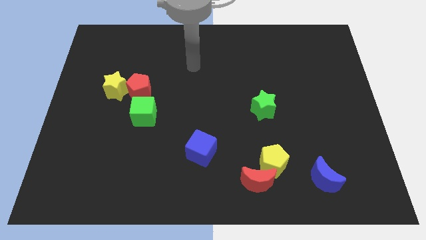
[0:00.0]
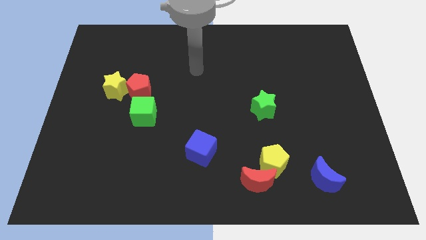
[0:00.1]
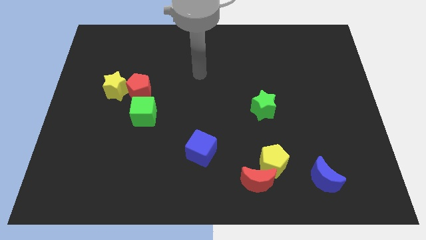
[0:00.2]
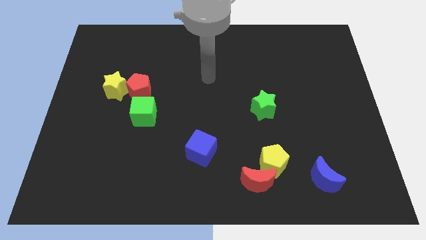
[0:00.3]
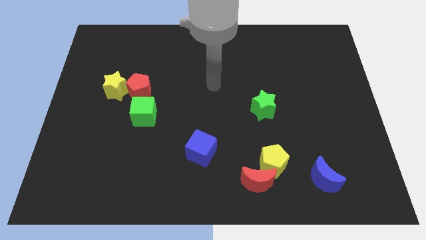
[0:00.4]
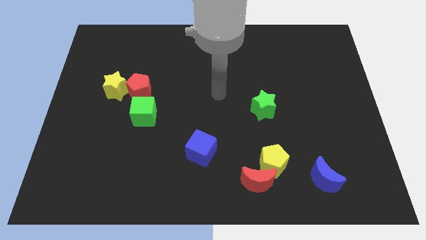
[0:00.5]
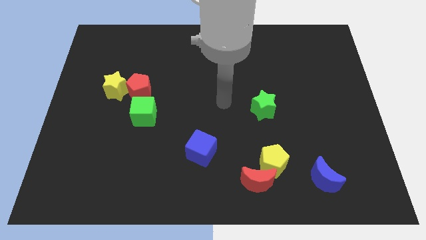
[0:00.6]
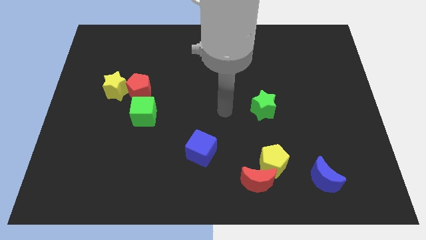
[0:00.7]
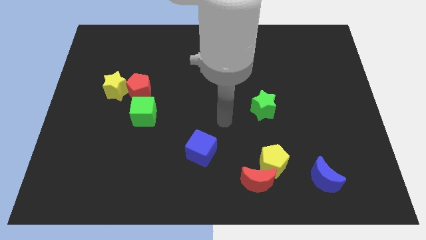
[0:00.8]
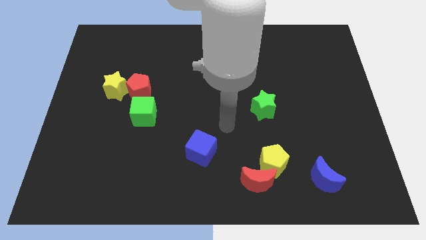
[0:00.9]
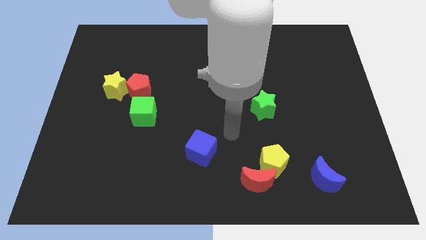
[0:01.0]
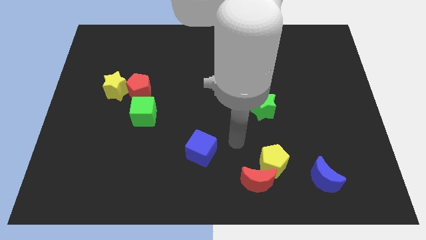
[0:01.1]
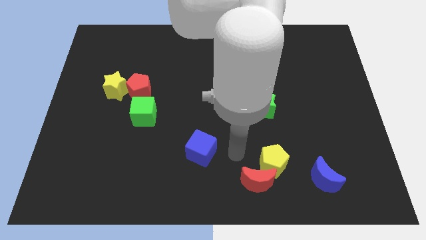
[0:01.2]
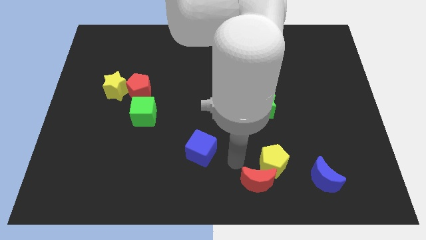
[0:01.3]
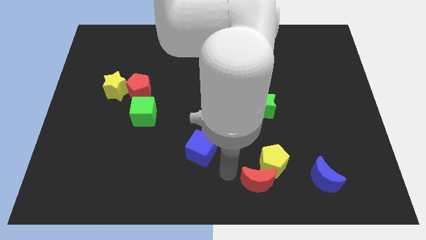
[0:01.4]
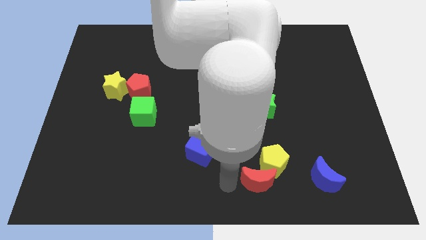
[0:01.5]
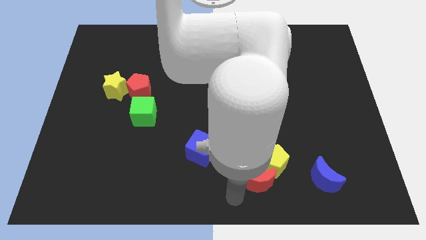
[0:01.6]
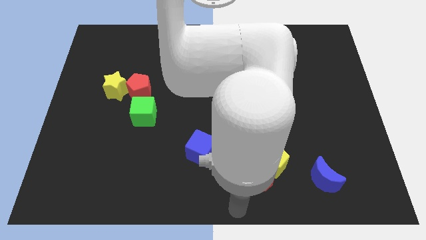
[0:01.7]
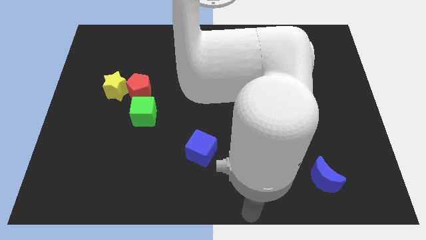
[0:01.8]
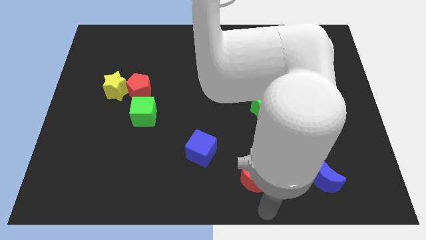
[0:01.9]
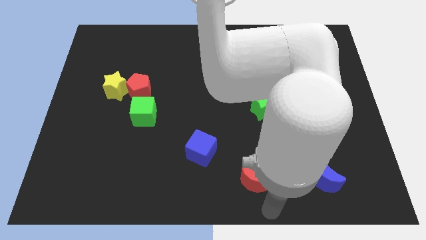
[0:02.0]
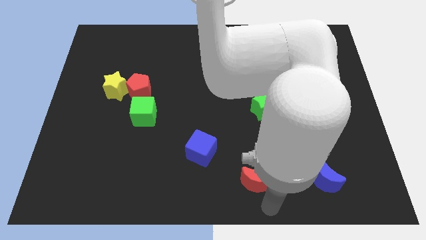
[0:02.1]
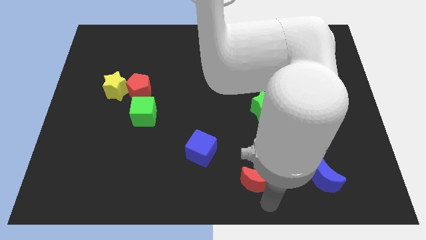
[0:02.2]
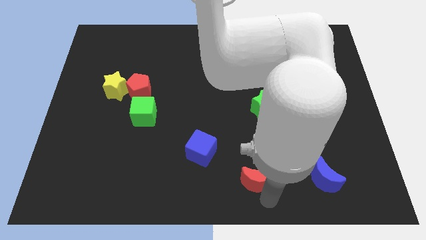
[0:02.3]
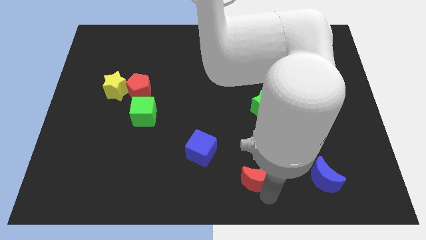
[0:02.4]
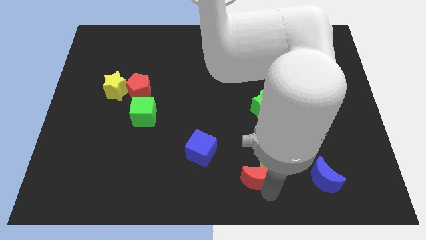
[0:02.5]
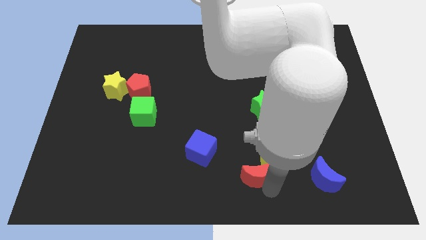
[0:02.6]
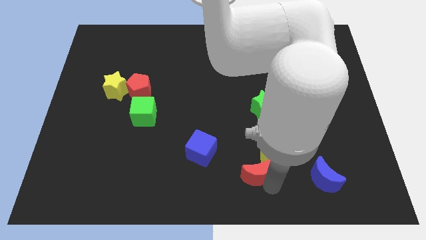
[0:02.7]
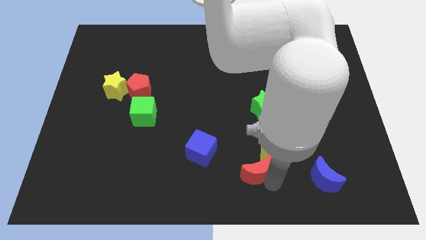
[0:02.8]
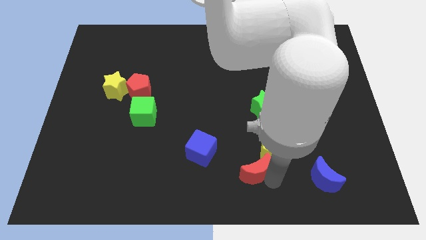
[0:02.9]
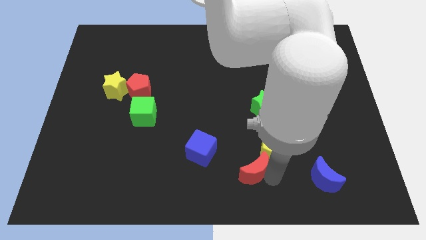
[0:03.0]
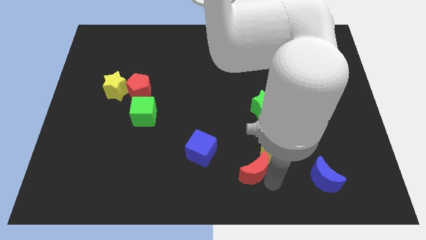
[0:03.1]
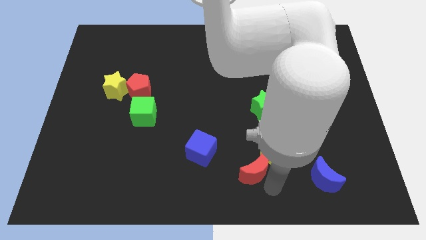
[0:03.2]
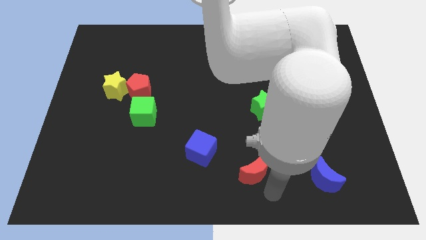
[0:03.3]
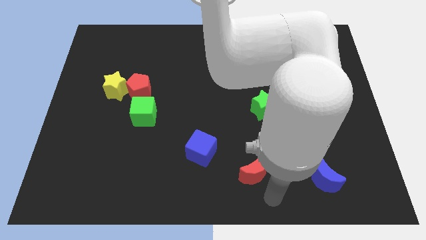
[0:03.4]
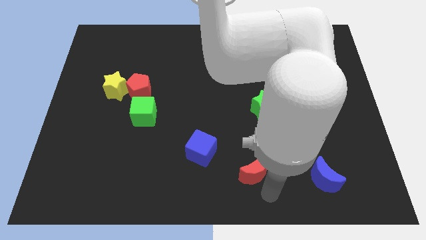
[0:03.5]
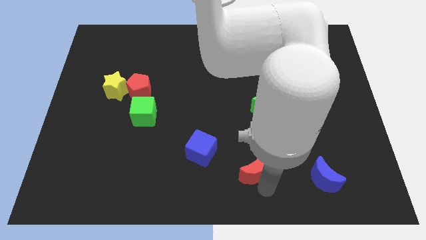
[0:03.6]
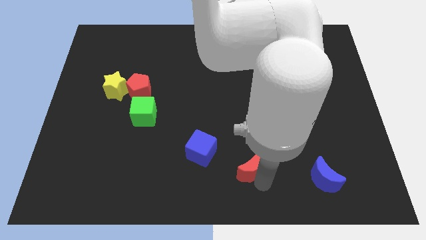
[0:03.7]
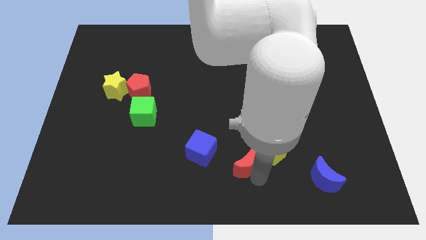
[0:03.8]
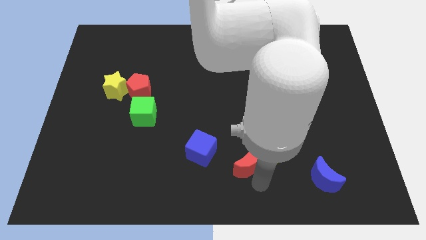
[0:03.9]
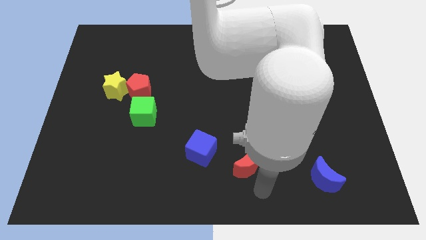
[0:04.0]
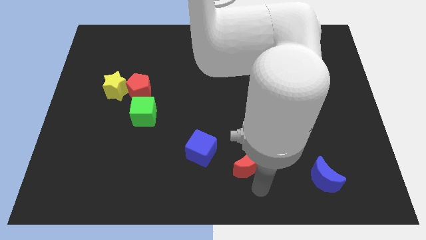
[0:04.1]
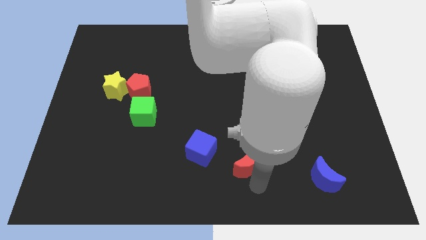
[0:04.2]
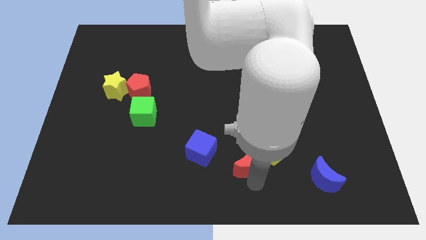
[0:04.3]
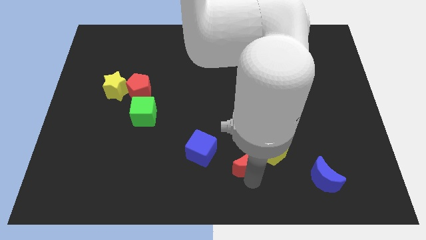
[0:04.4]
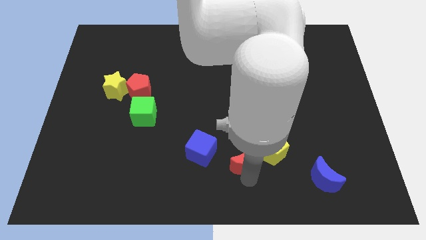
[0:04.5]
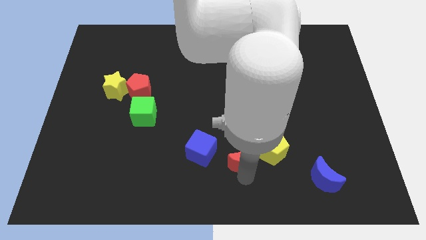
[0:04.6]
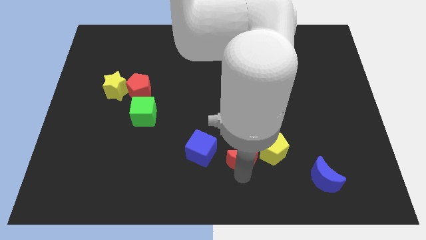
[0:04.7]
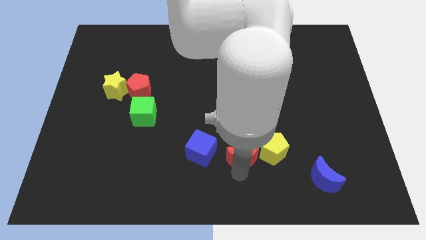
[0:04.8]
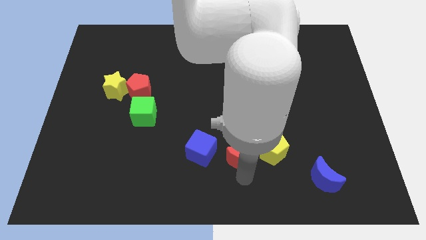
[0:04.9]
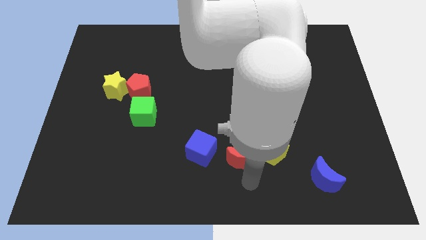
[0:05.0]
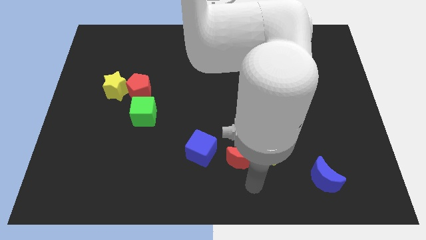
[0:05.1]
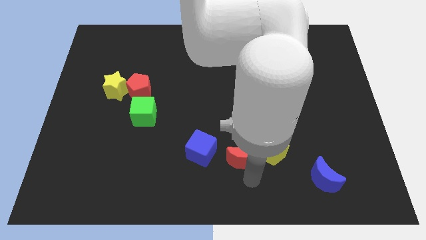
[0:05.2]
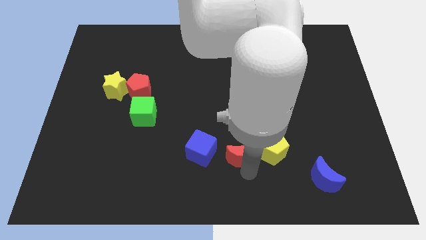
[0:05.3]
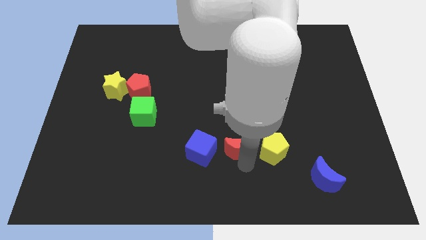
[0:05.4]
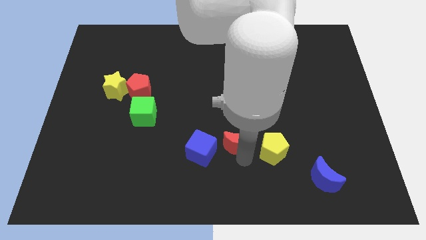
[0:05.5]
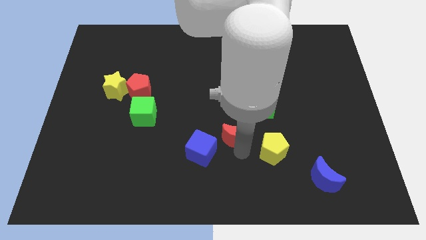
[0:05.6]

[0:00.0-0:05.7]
slide the red moon to the center

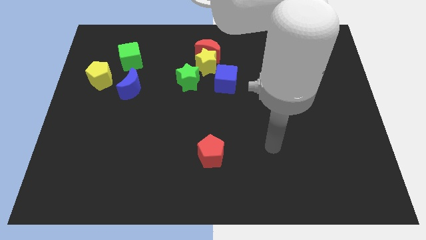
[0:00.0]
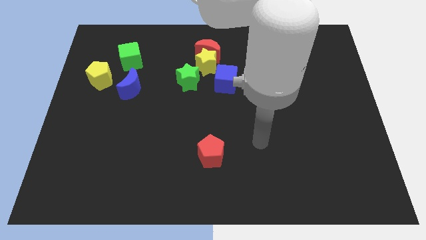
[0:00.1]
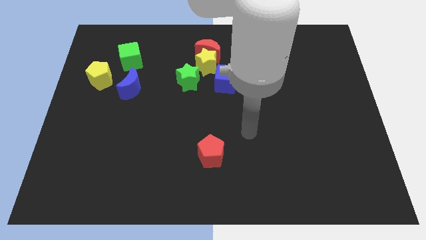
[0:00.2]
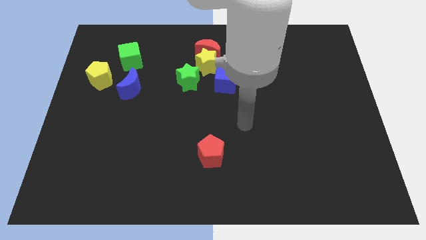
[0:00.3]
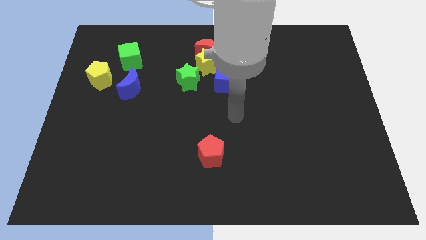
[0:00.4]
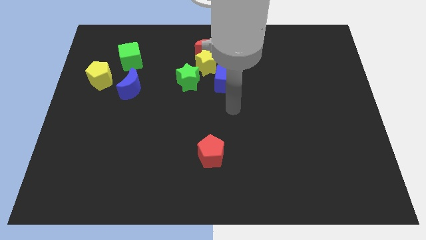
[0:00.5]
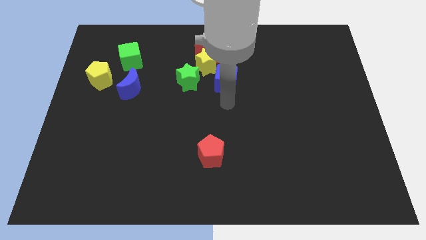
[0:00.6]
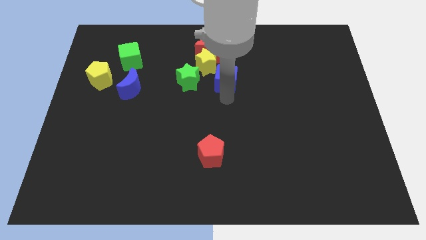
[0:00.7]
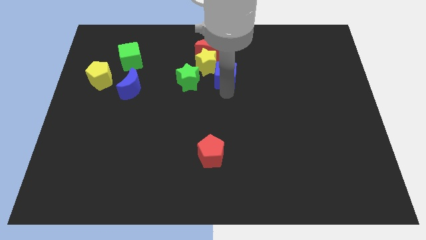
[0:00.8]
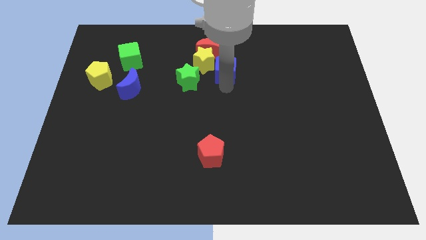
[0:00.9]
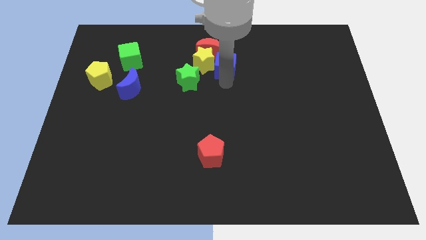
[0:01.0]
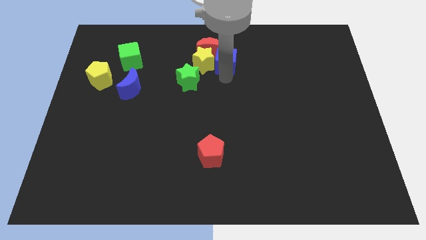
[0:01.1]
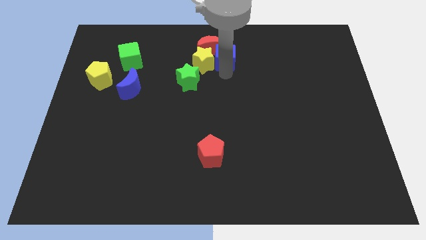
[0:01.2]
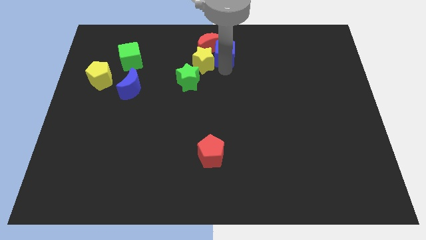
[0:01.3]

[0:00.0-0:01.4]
move the blue cube to the top side
